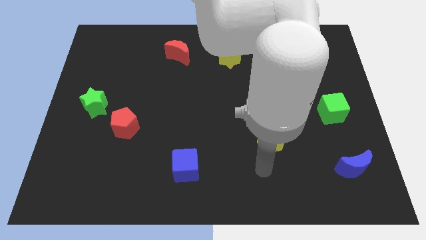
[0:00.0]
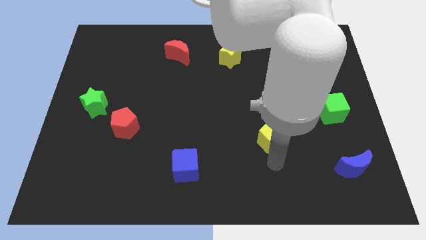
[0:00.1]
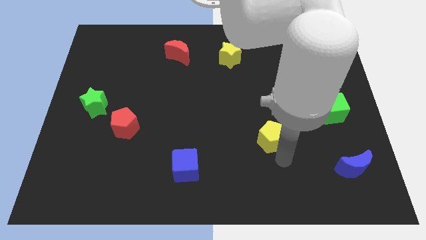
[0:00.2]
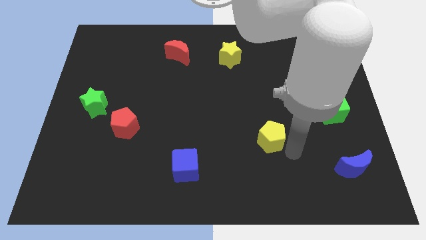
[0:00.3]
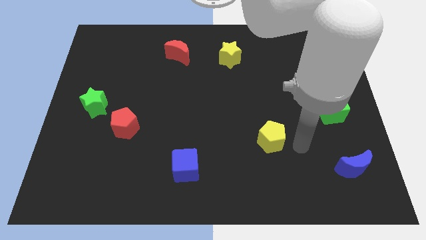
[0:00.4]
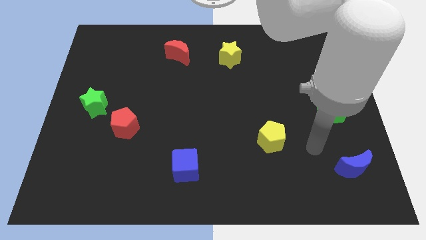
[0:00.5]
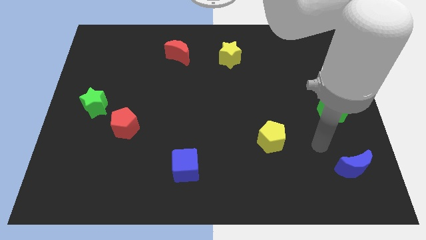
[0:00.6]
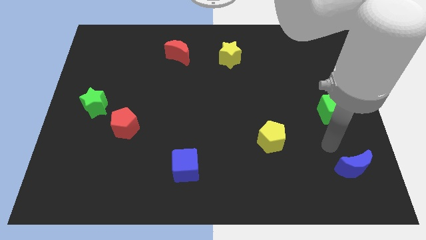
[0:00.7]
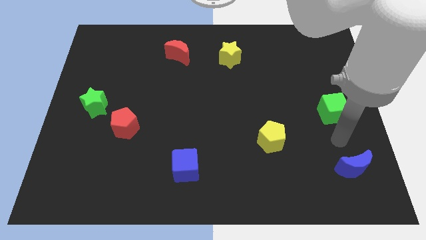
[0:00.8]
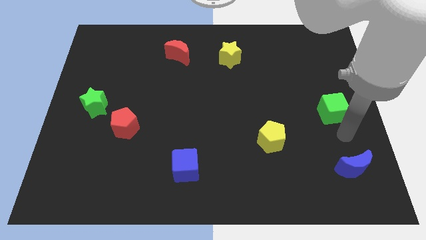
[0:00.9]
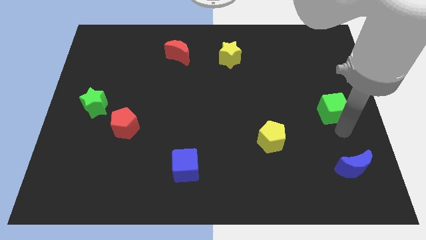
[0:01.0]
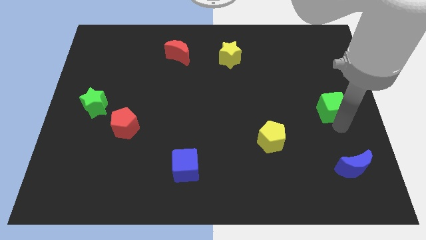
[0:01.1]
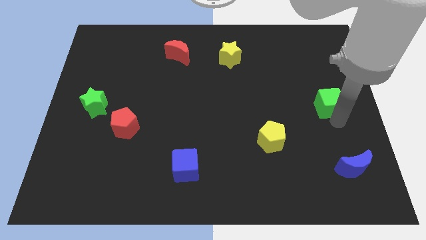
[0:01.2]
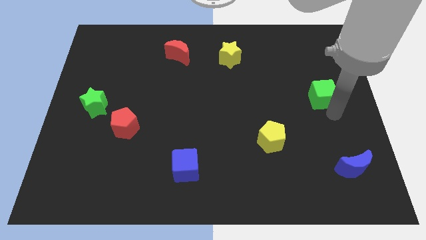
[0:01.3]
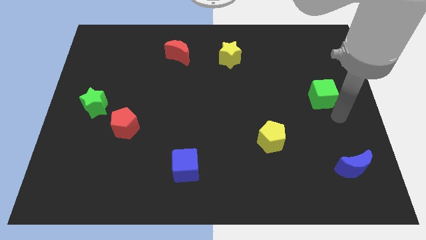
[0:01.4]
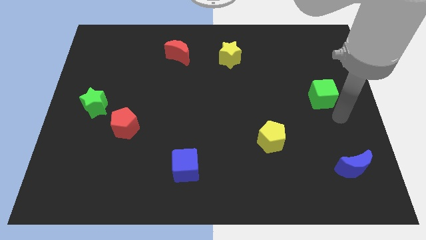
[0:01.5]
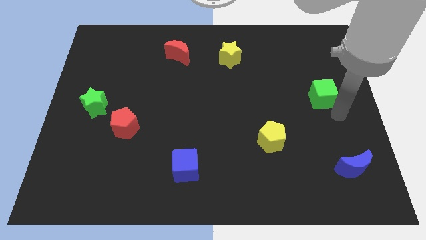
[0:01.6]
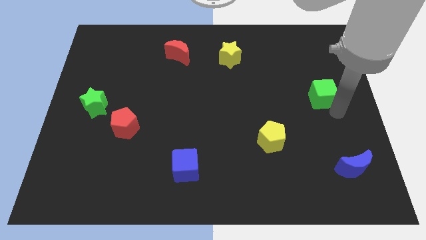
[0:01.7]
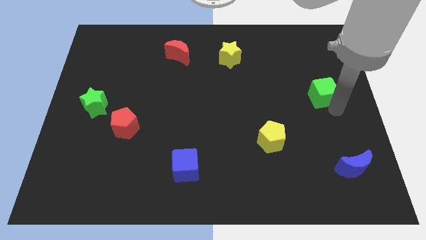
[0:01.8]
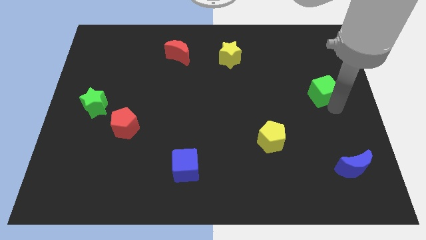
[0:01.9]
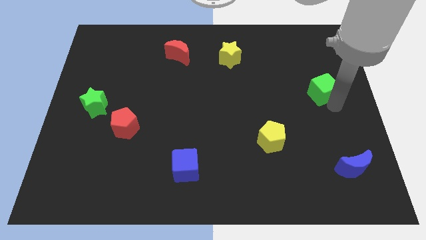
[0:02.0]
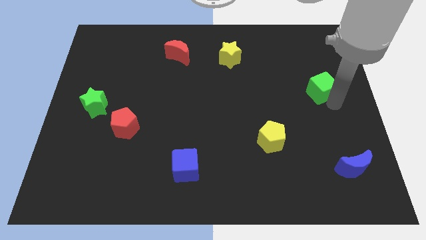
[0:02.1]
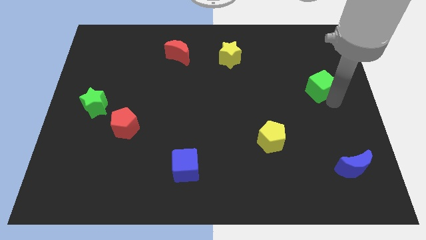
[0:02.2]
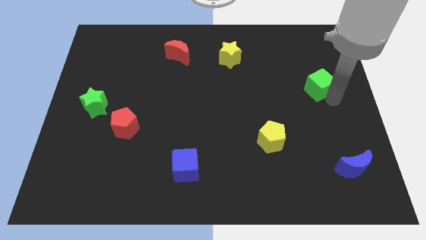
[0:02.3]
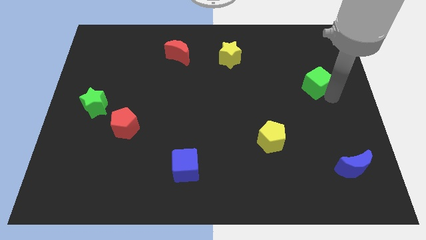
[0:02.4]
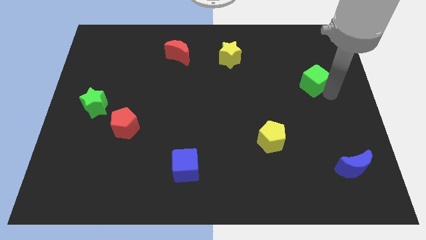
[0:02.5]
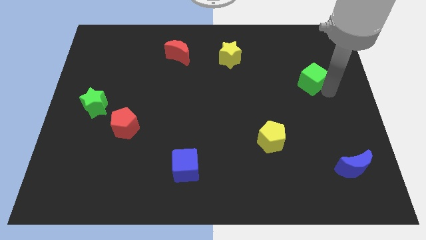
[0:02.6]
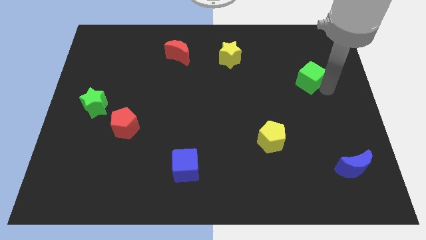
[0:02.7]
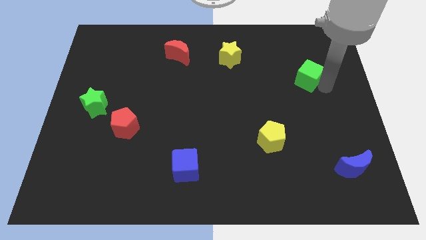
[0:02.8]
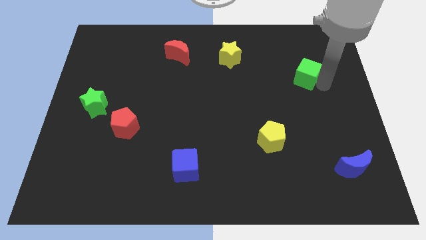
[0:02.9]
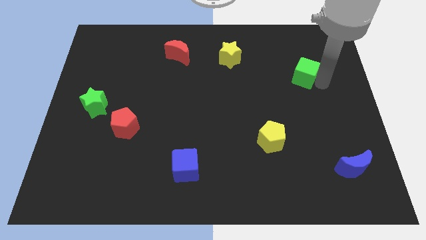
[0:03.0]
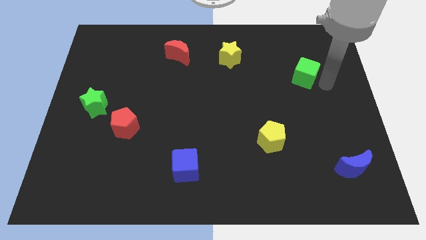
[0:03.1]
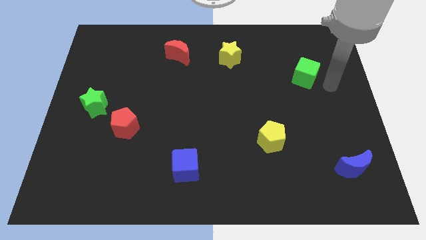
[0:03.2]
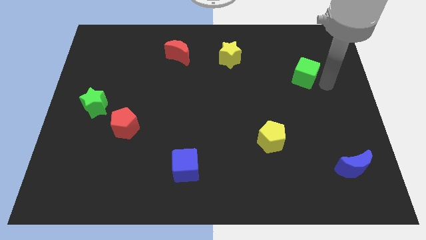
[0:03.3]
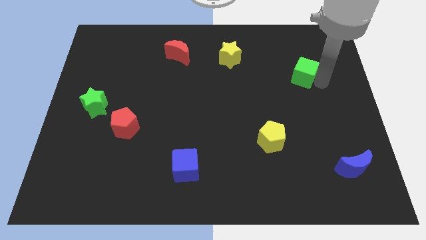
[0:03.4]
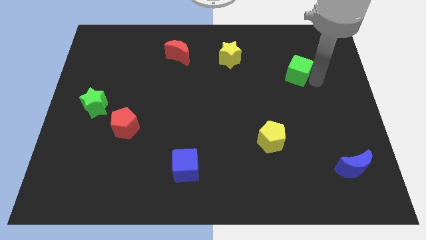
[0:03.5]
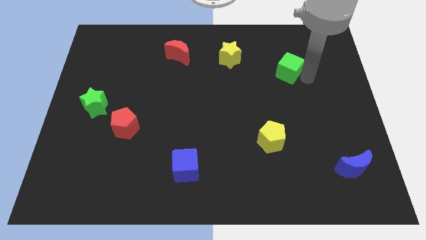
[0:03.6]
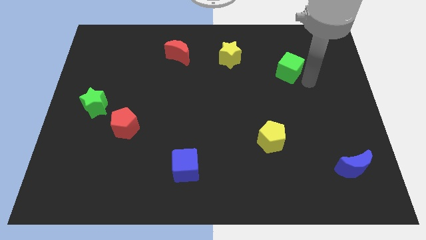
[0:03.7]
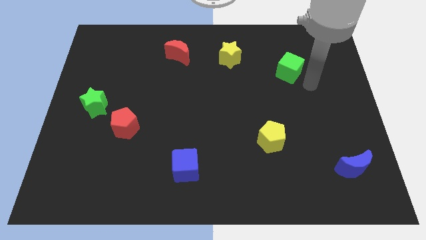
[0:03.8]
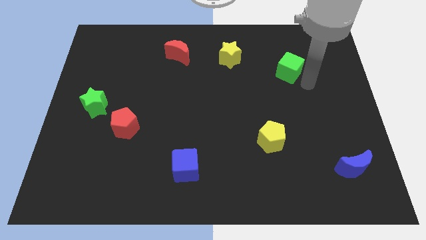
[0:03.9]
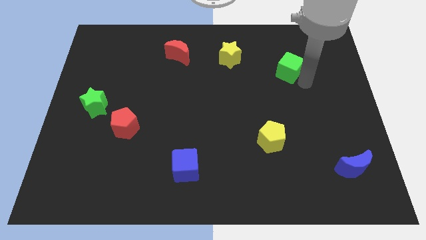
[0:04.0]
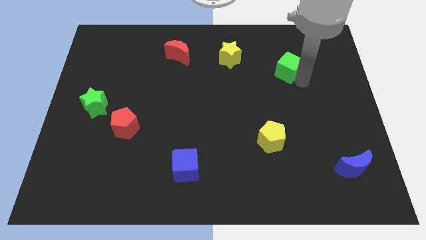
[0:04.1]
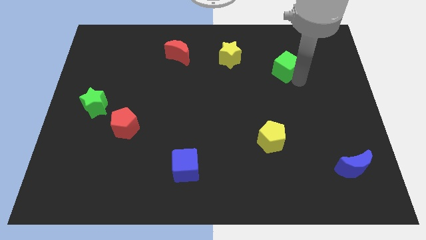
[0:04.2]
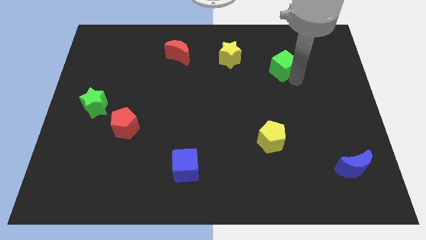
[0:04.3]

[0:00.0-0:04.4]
push the green cube just right of the yellow star

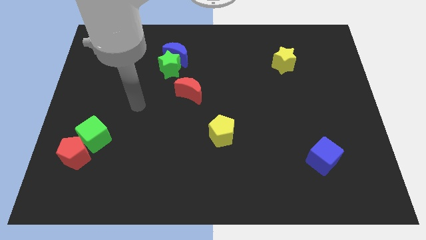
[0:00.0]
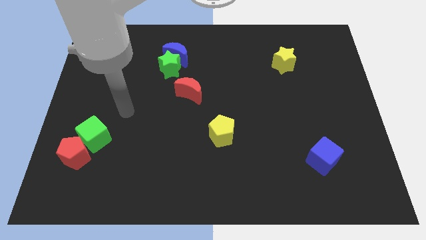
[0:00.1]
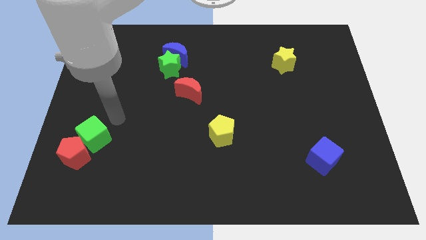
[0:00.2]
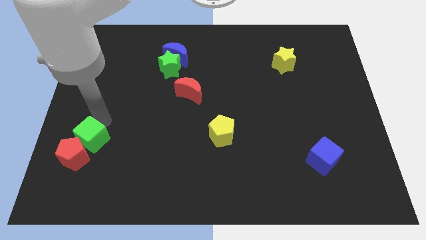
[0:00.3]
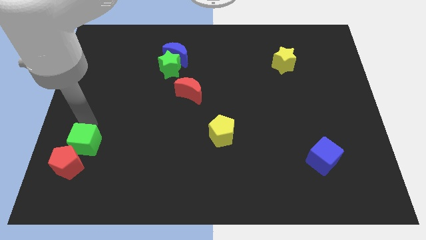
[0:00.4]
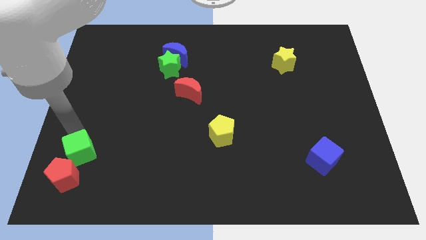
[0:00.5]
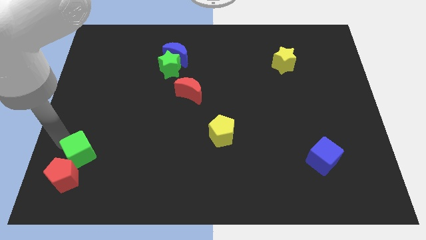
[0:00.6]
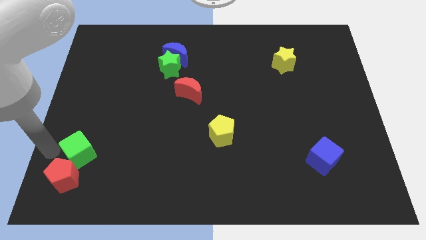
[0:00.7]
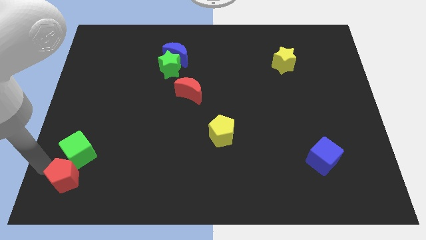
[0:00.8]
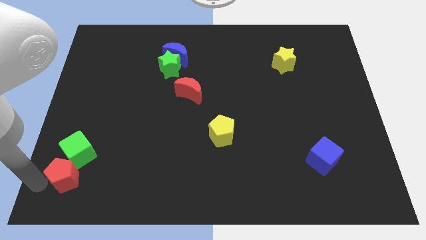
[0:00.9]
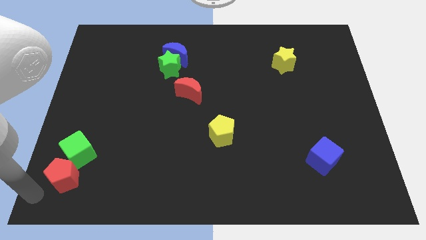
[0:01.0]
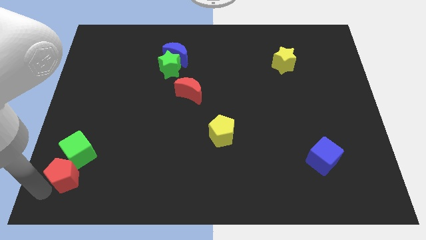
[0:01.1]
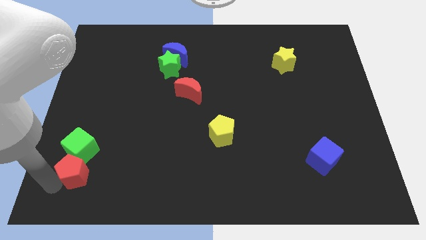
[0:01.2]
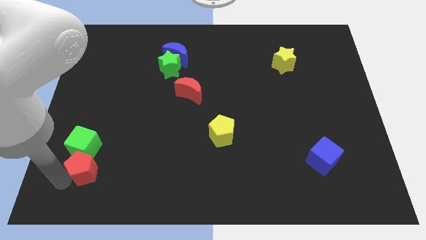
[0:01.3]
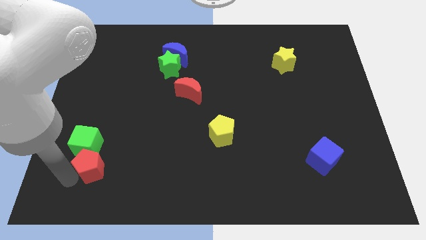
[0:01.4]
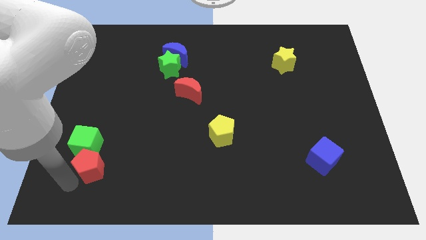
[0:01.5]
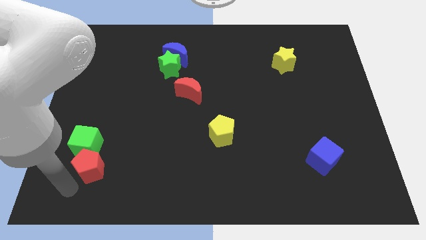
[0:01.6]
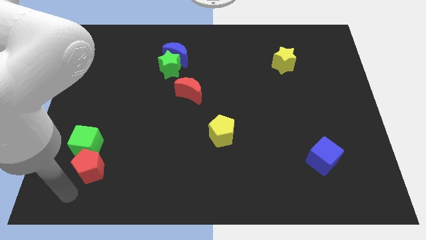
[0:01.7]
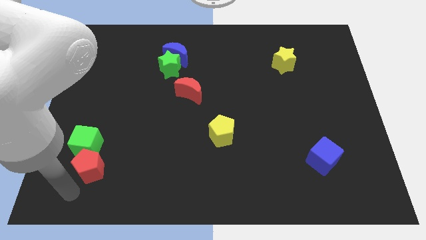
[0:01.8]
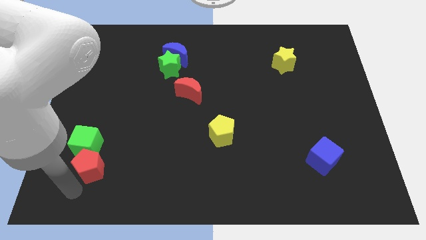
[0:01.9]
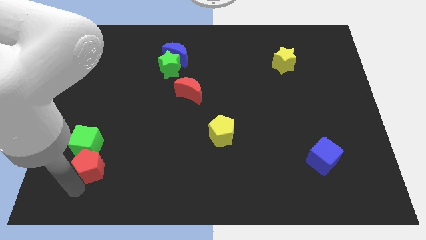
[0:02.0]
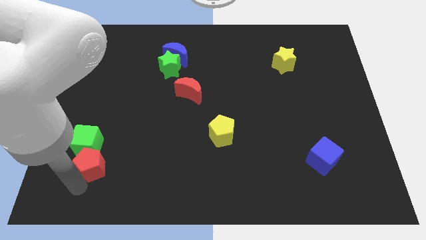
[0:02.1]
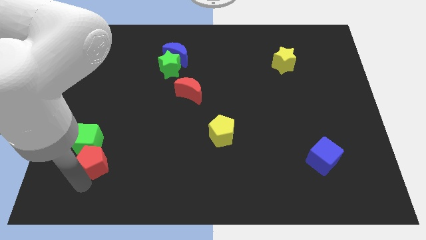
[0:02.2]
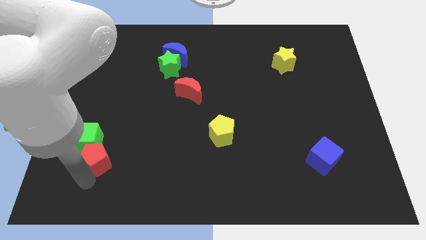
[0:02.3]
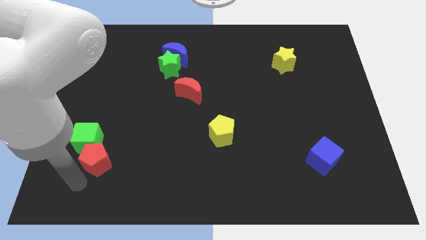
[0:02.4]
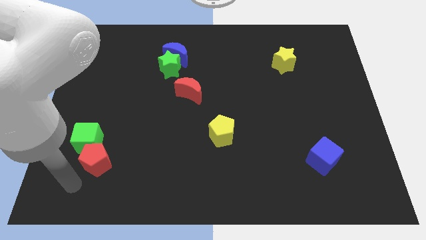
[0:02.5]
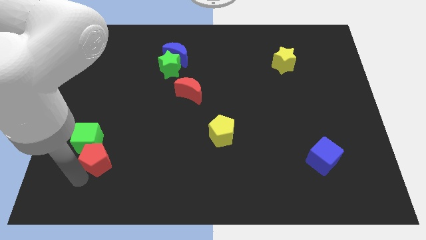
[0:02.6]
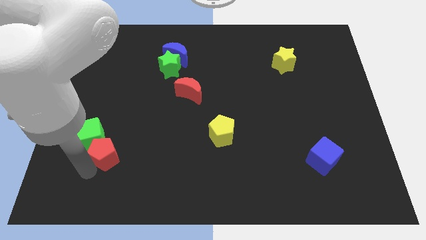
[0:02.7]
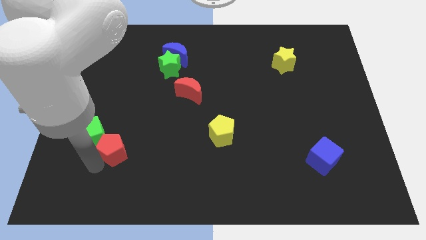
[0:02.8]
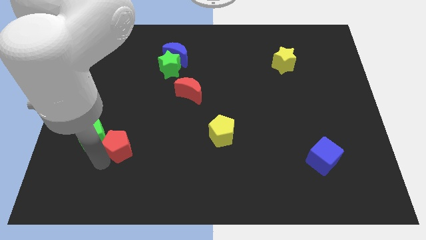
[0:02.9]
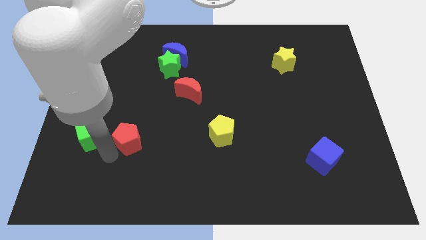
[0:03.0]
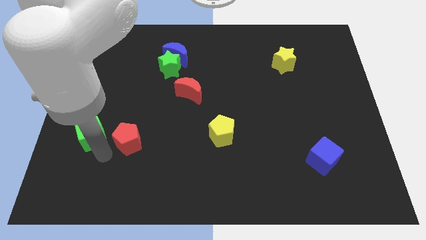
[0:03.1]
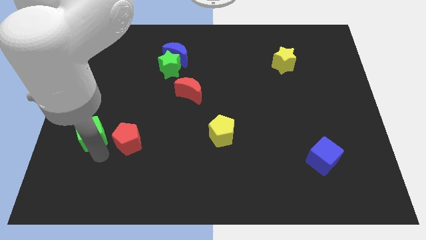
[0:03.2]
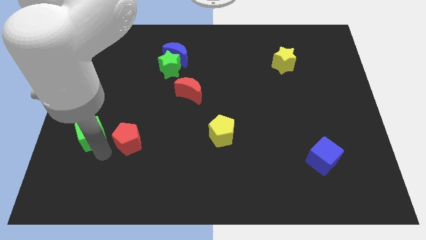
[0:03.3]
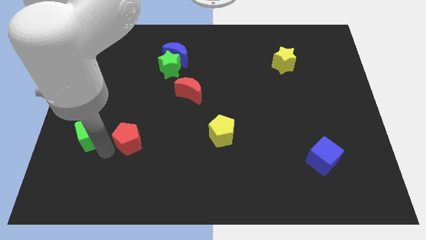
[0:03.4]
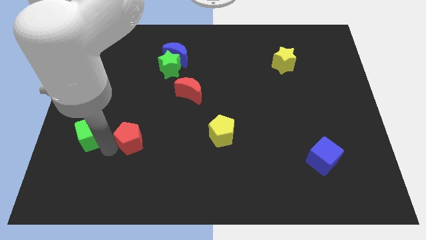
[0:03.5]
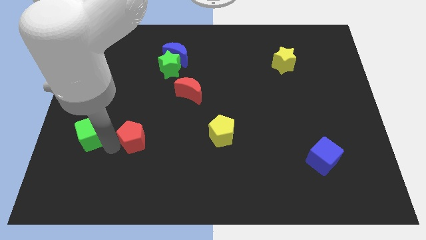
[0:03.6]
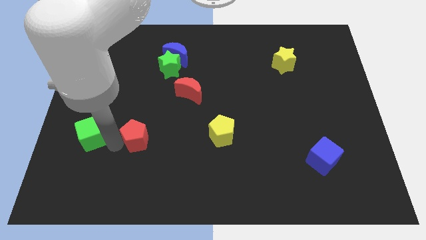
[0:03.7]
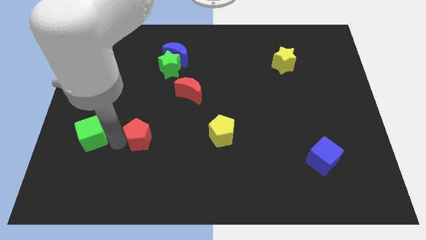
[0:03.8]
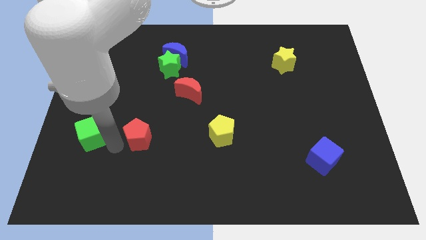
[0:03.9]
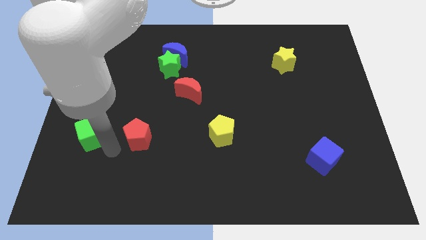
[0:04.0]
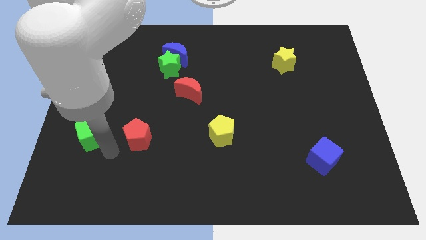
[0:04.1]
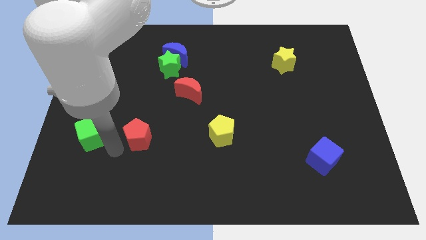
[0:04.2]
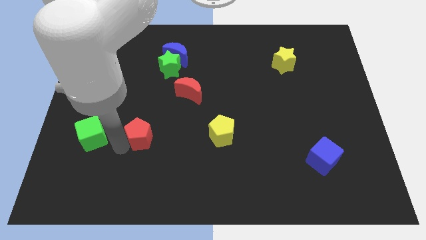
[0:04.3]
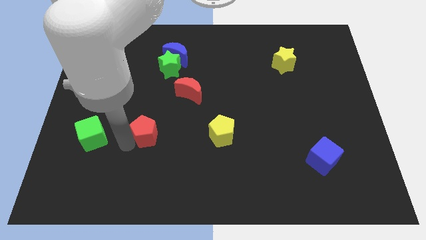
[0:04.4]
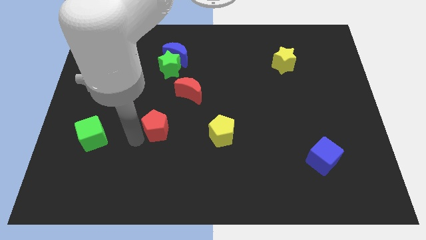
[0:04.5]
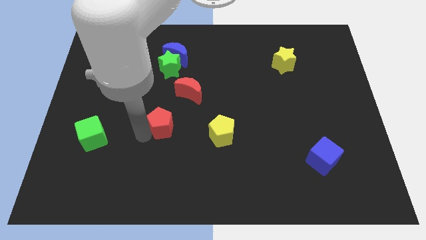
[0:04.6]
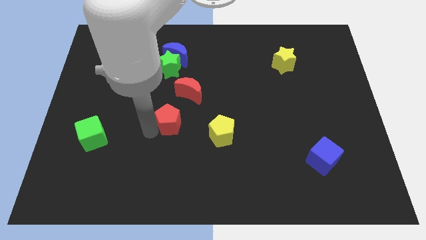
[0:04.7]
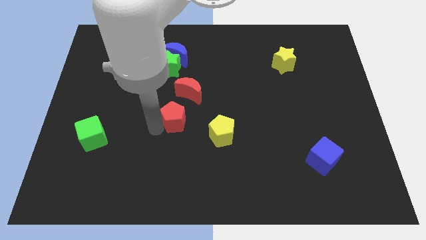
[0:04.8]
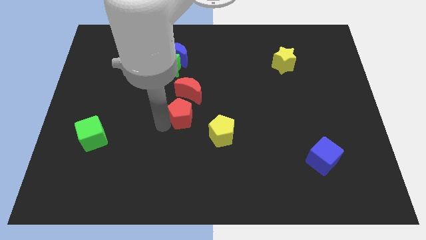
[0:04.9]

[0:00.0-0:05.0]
slide the red pentagon to the top left of the yellow pentagon
